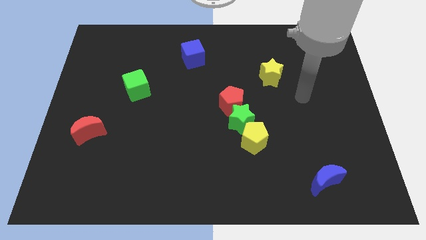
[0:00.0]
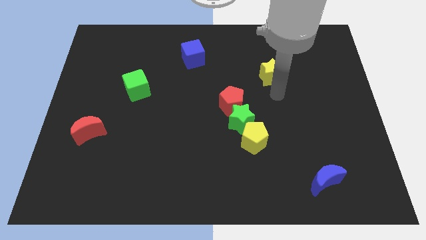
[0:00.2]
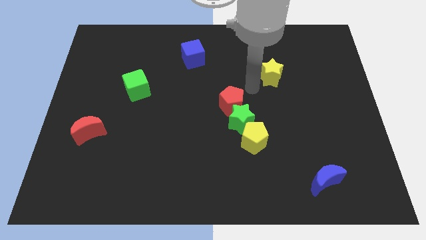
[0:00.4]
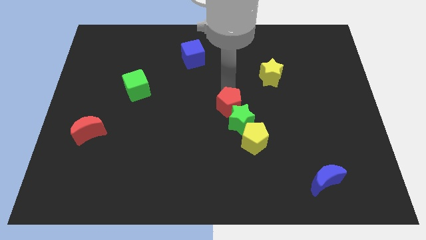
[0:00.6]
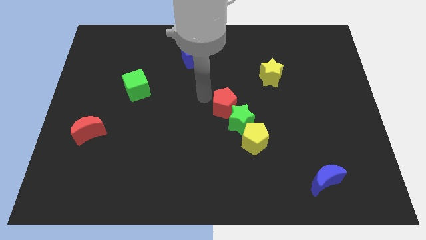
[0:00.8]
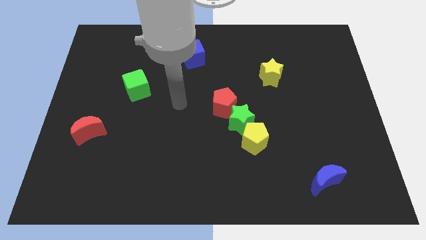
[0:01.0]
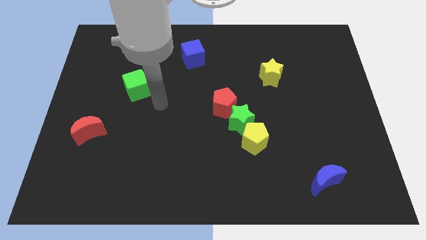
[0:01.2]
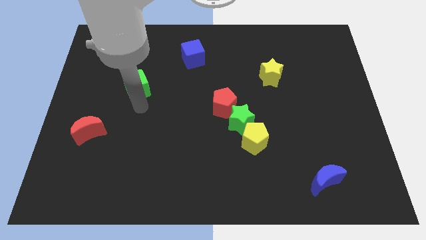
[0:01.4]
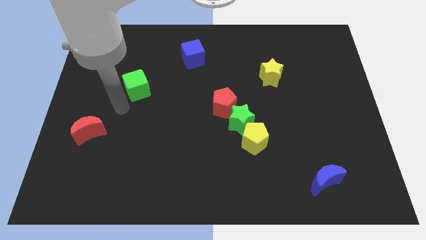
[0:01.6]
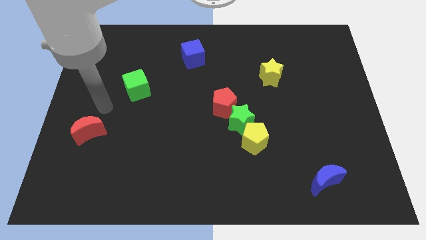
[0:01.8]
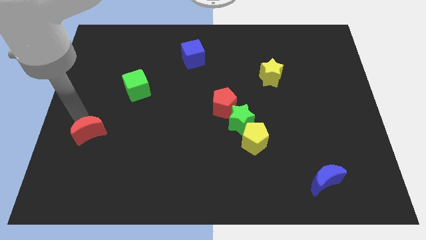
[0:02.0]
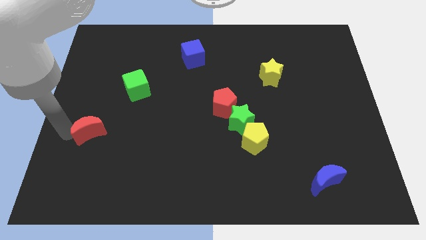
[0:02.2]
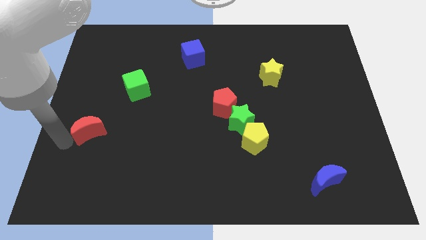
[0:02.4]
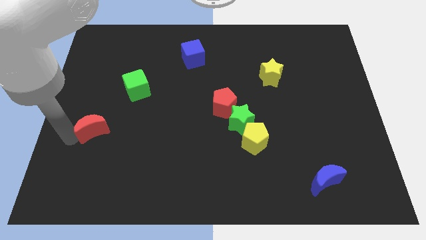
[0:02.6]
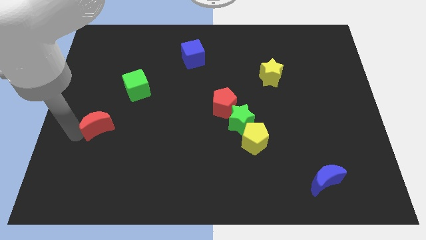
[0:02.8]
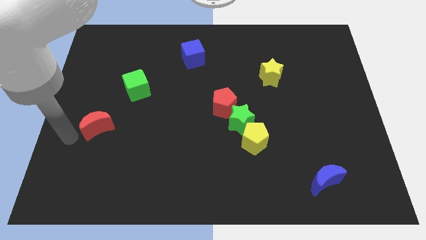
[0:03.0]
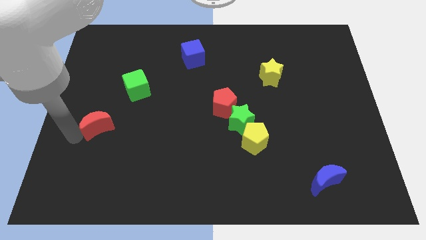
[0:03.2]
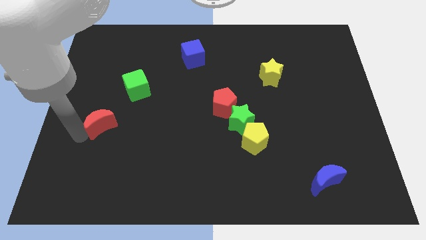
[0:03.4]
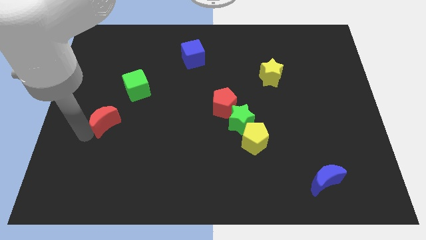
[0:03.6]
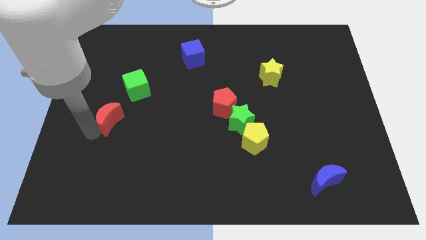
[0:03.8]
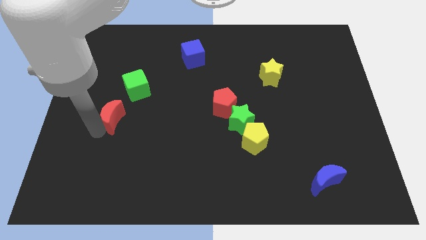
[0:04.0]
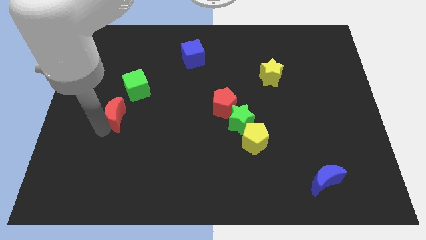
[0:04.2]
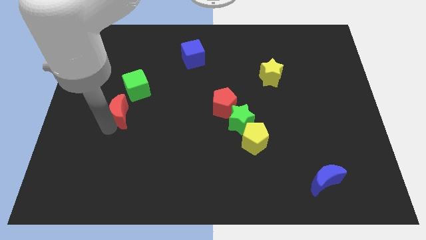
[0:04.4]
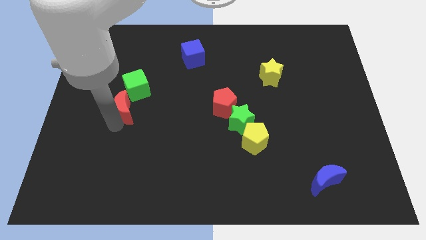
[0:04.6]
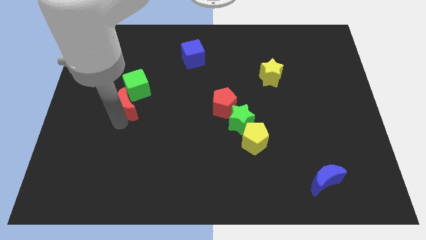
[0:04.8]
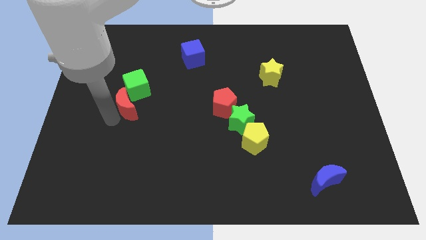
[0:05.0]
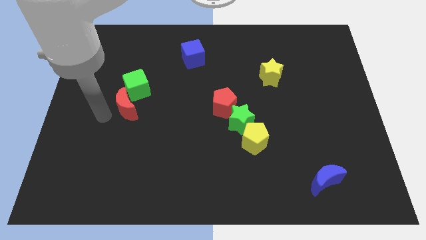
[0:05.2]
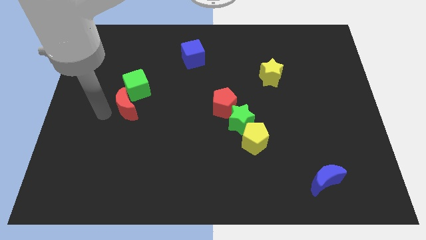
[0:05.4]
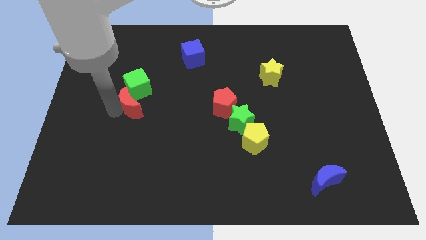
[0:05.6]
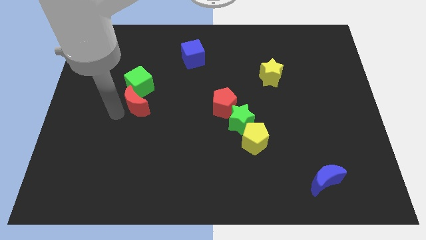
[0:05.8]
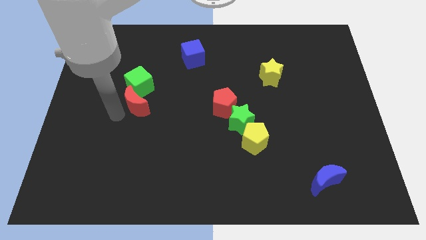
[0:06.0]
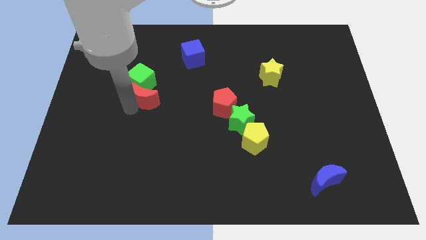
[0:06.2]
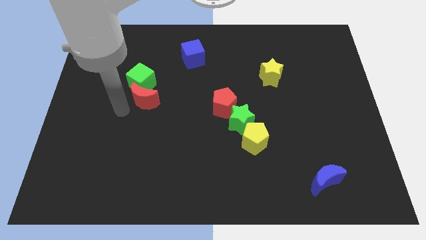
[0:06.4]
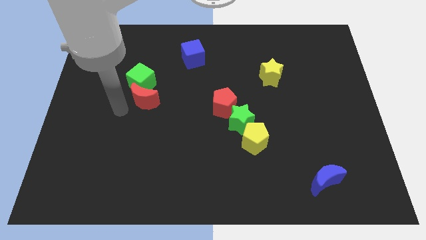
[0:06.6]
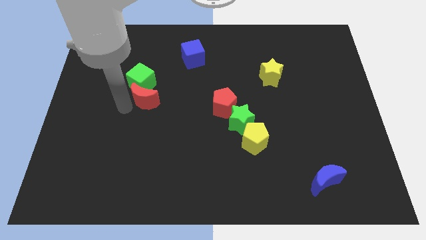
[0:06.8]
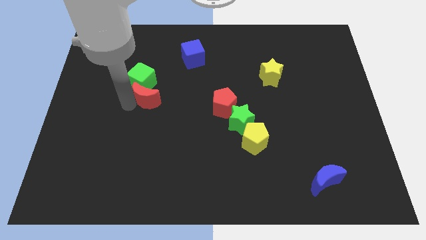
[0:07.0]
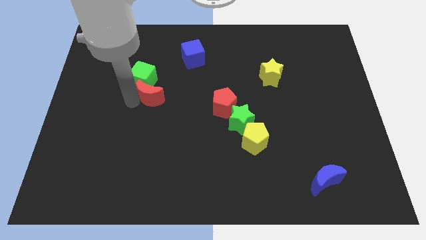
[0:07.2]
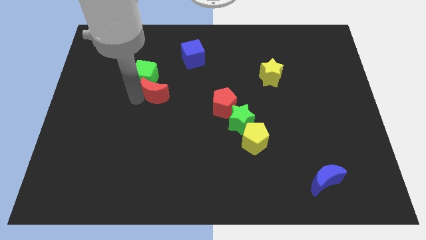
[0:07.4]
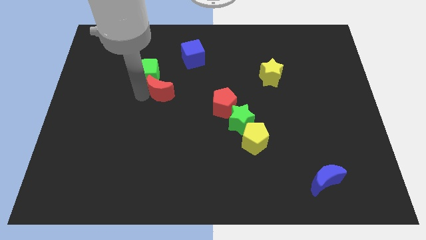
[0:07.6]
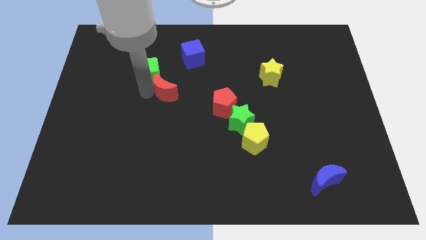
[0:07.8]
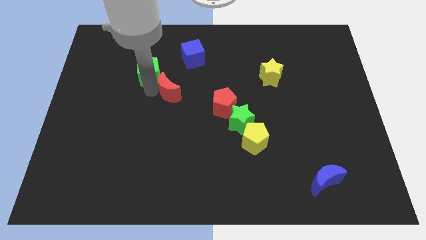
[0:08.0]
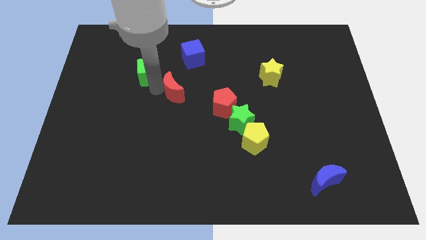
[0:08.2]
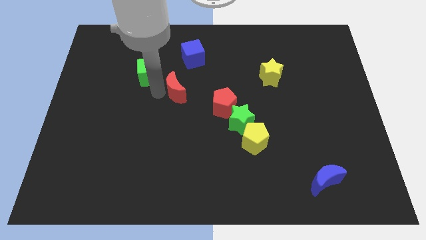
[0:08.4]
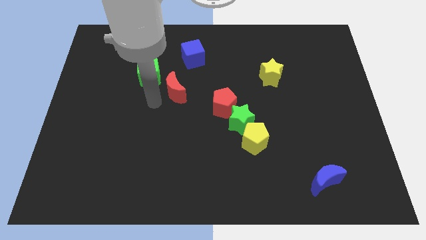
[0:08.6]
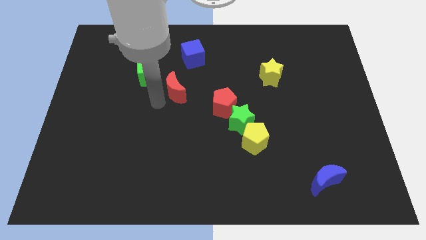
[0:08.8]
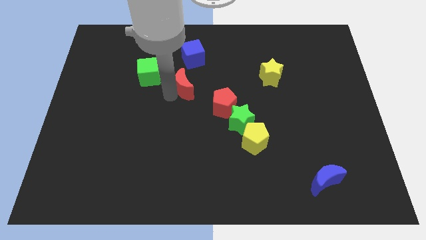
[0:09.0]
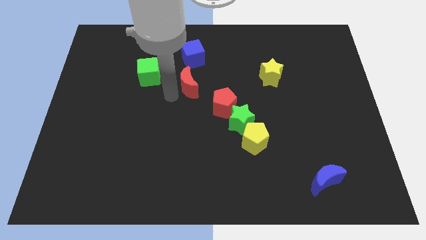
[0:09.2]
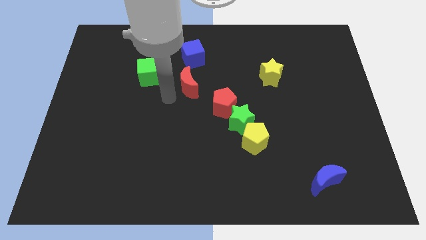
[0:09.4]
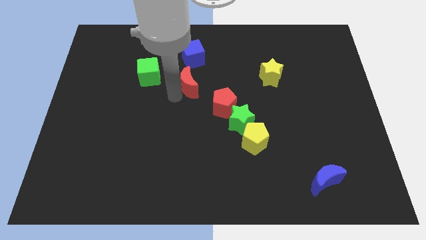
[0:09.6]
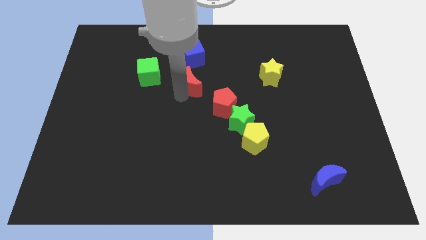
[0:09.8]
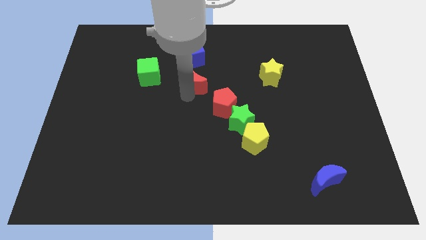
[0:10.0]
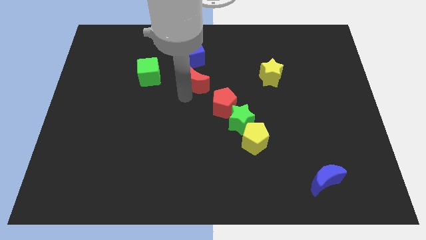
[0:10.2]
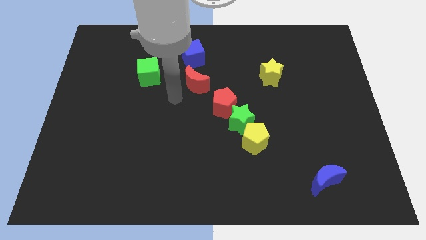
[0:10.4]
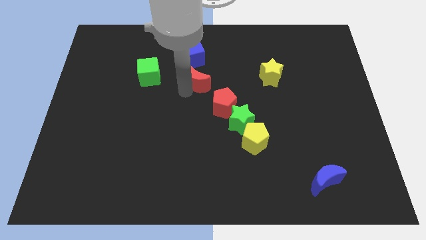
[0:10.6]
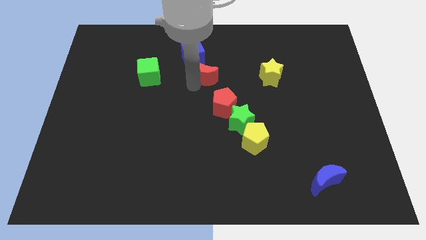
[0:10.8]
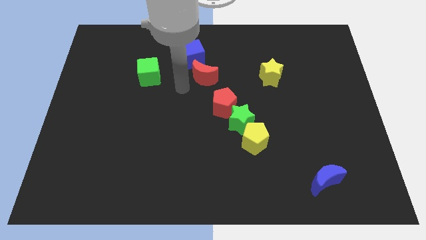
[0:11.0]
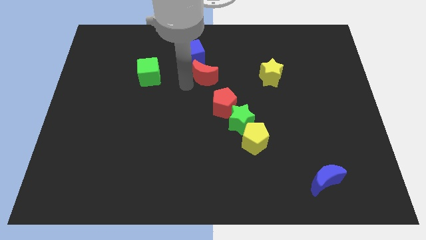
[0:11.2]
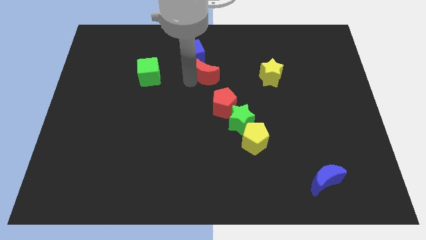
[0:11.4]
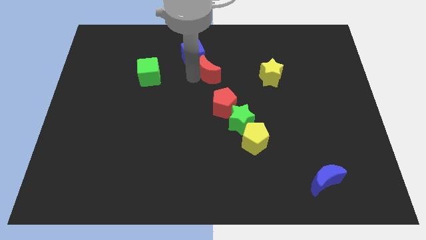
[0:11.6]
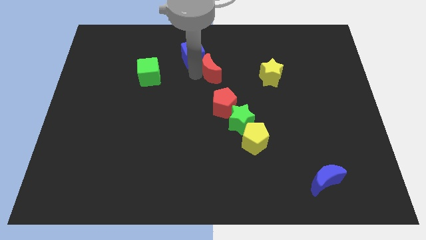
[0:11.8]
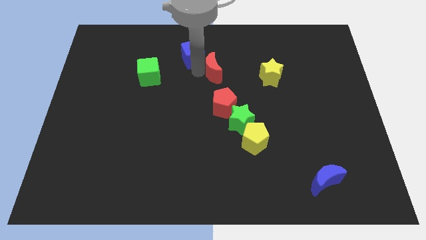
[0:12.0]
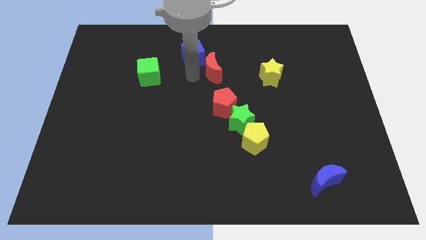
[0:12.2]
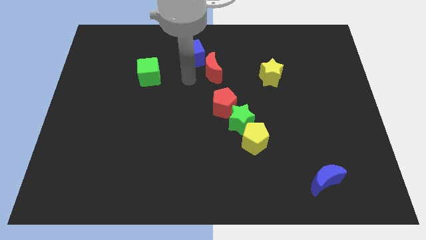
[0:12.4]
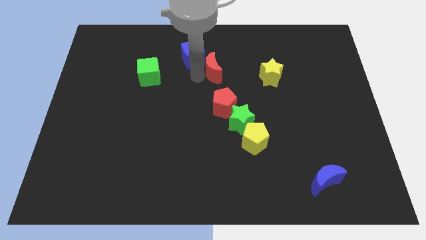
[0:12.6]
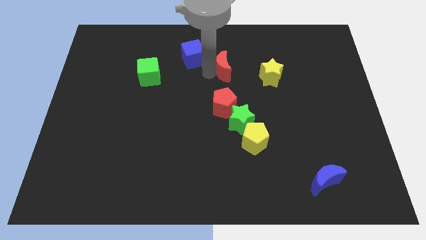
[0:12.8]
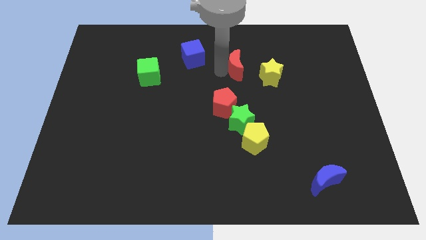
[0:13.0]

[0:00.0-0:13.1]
put the red moon diagonally up and to the left of the yellow star
